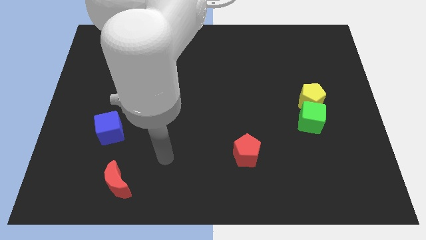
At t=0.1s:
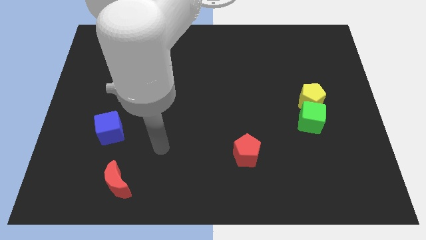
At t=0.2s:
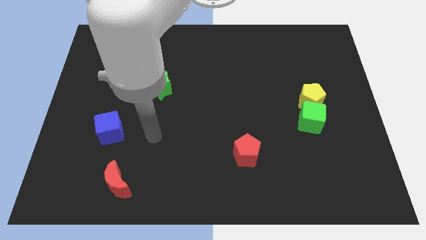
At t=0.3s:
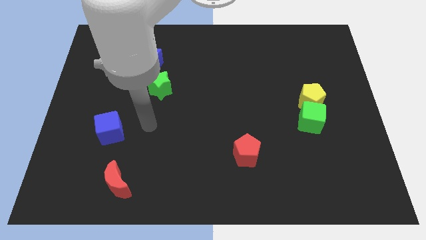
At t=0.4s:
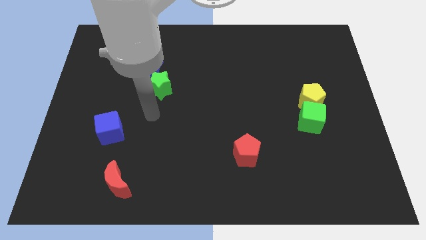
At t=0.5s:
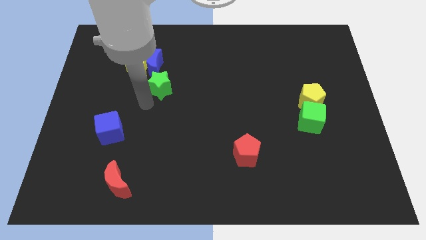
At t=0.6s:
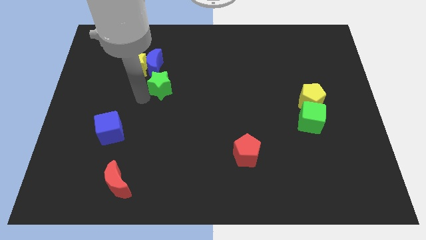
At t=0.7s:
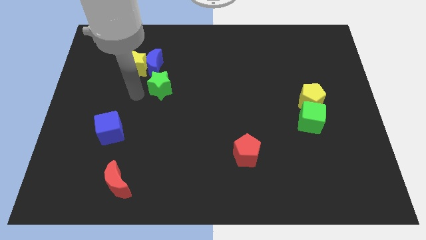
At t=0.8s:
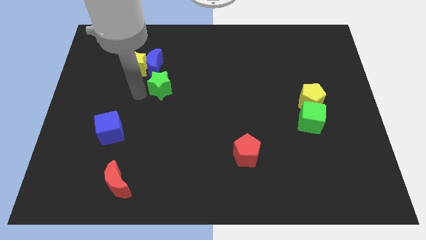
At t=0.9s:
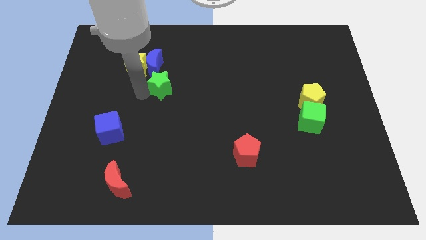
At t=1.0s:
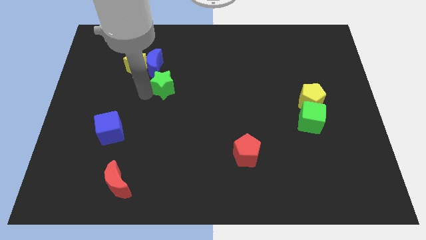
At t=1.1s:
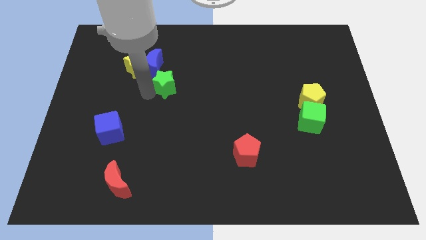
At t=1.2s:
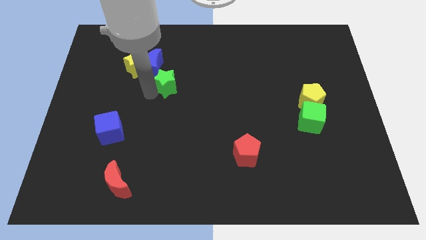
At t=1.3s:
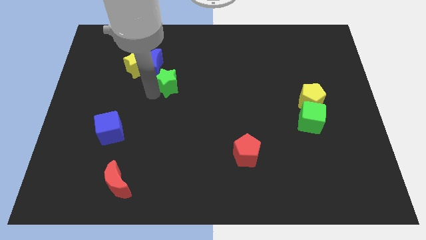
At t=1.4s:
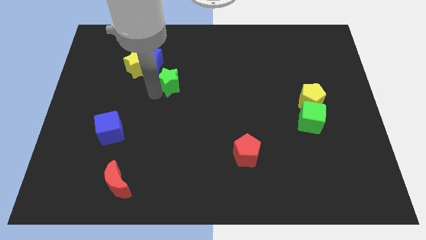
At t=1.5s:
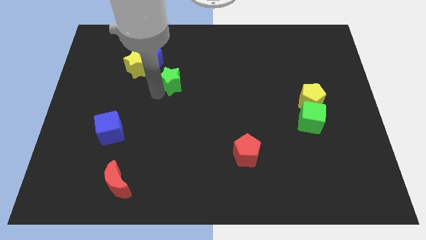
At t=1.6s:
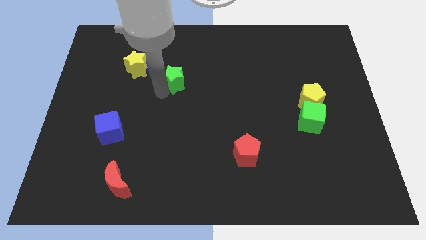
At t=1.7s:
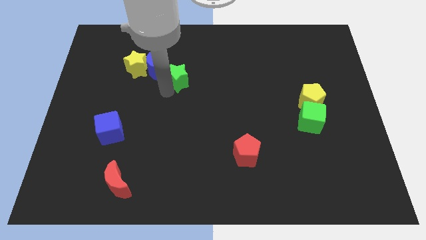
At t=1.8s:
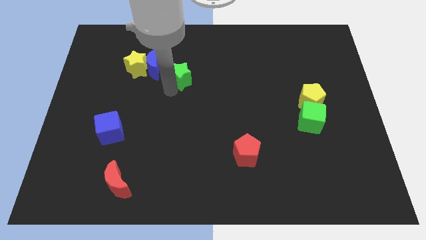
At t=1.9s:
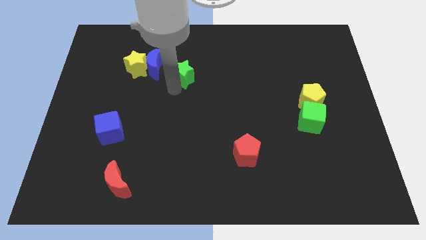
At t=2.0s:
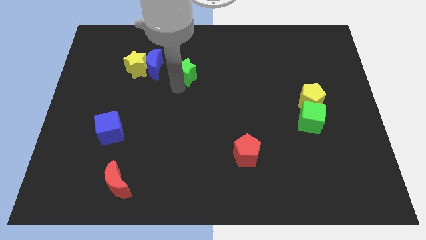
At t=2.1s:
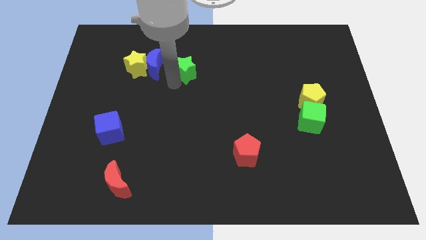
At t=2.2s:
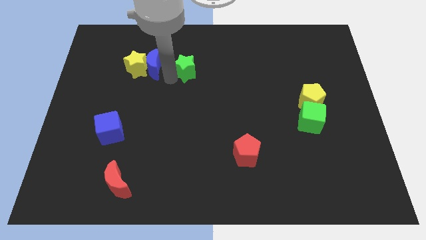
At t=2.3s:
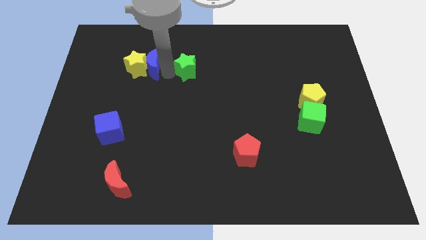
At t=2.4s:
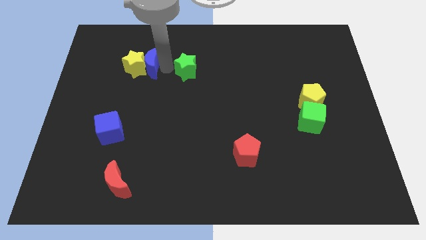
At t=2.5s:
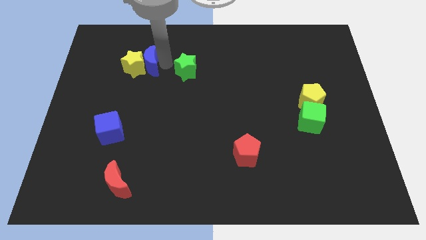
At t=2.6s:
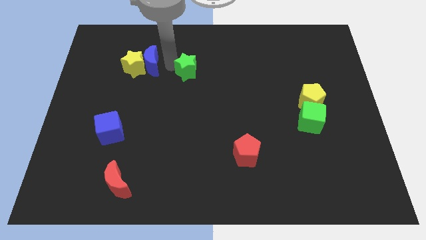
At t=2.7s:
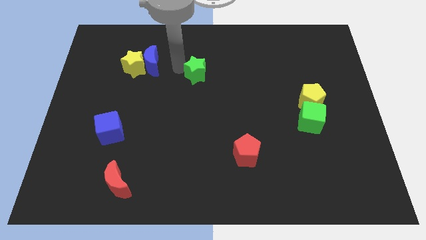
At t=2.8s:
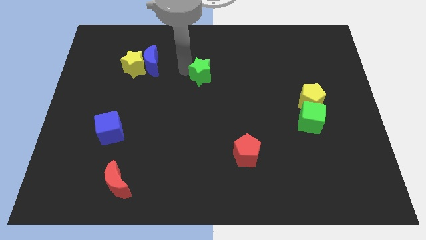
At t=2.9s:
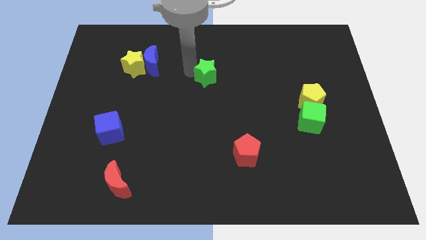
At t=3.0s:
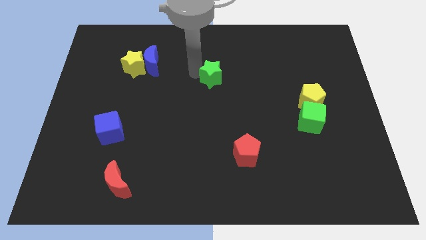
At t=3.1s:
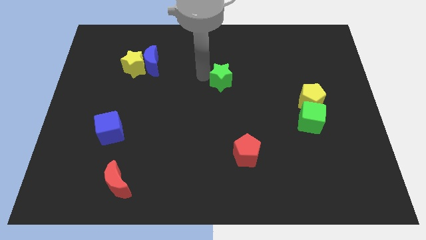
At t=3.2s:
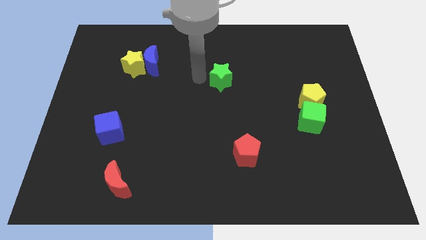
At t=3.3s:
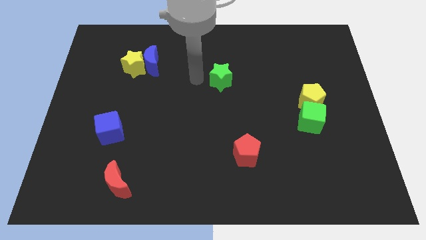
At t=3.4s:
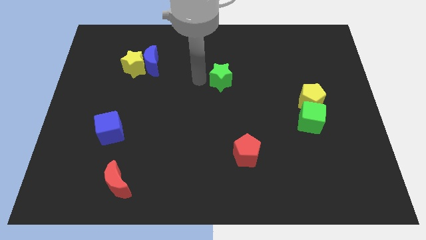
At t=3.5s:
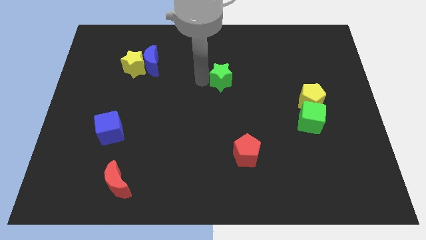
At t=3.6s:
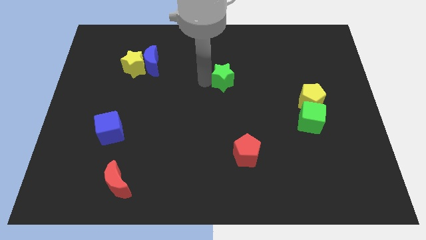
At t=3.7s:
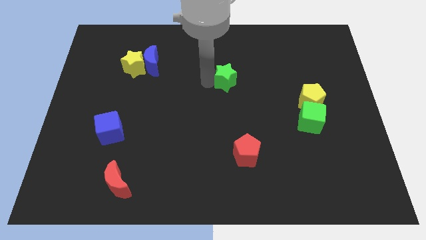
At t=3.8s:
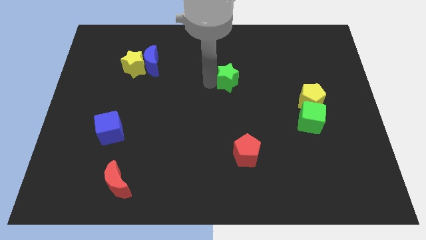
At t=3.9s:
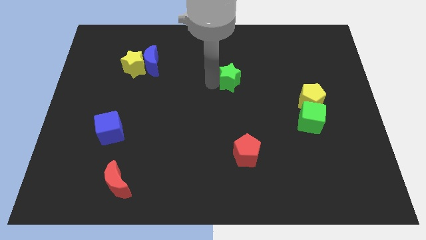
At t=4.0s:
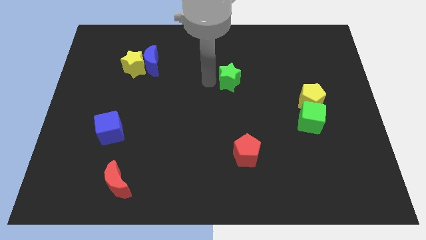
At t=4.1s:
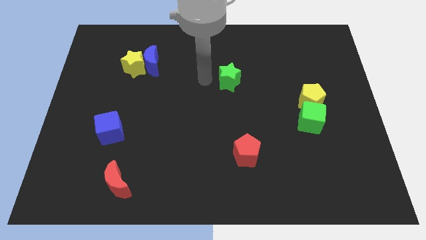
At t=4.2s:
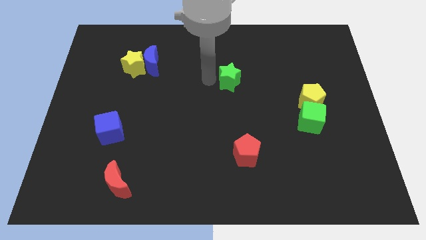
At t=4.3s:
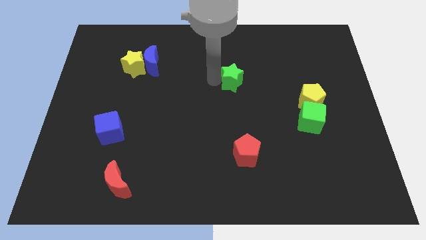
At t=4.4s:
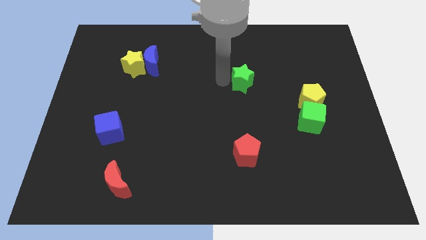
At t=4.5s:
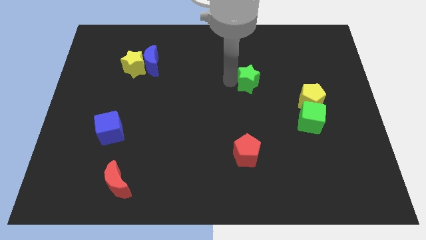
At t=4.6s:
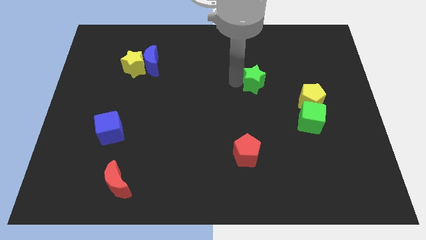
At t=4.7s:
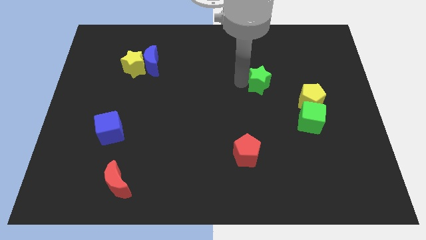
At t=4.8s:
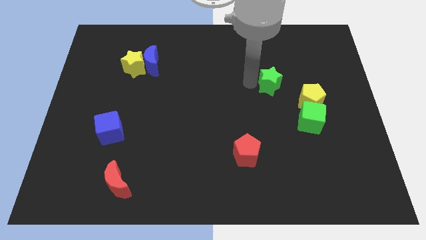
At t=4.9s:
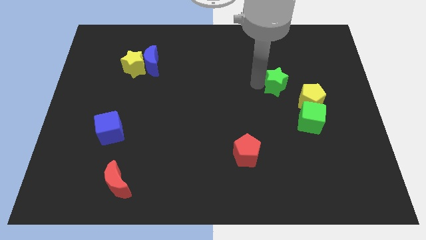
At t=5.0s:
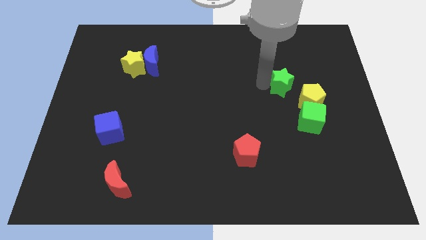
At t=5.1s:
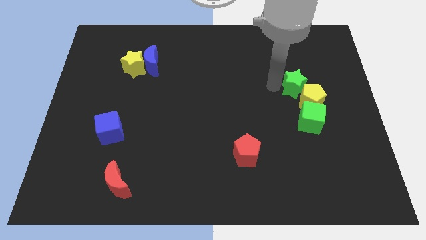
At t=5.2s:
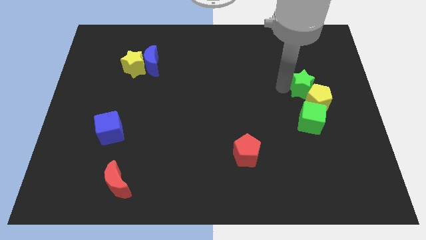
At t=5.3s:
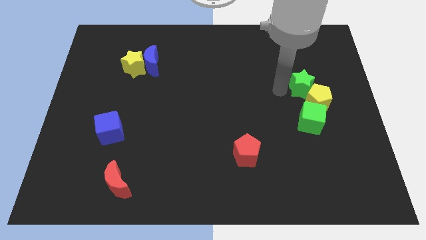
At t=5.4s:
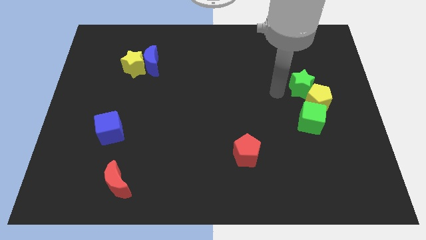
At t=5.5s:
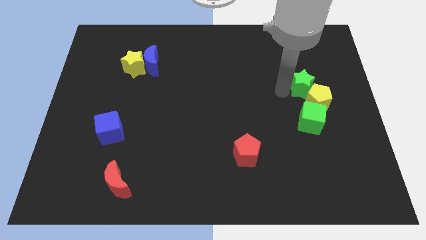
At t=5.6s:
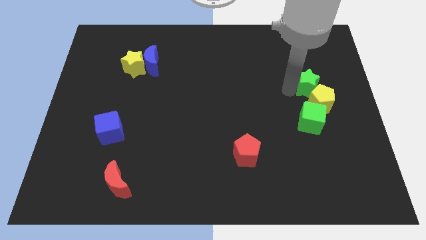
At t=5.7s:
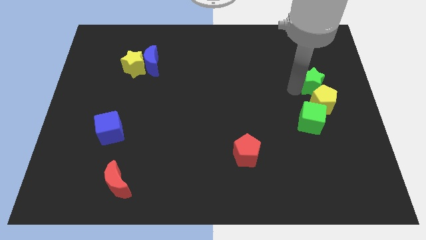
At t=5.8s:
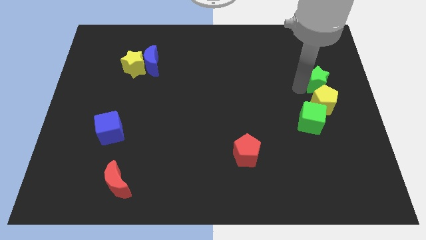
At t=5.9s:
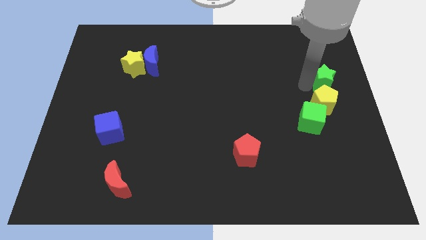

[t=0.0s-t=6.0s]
push the green star to the center right
